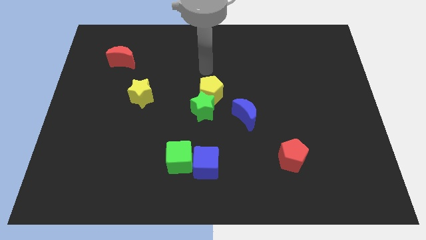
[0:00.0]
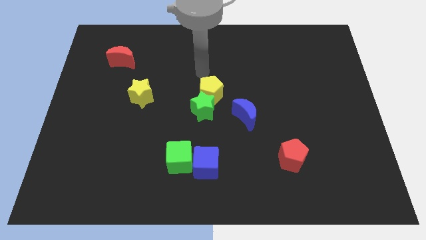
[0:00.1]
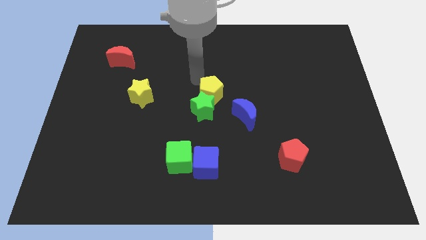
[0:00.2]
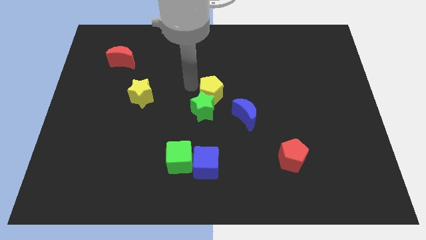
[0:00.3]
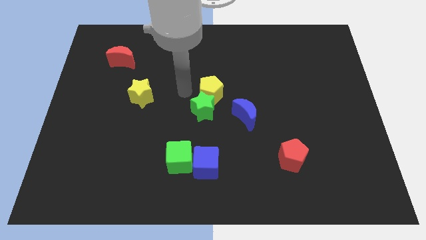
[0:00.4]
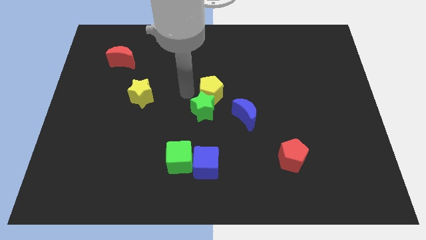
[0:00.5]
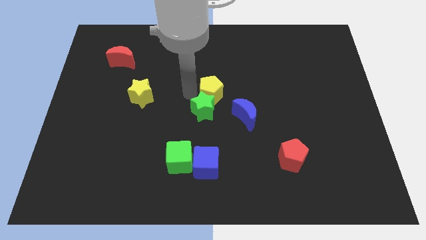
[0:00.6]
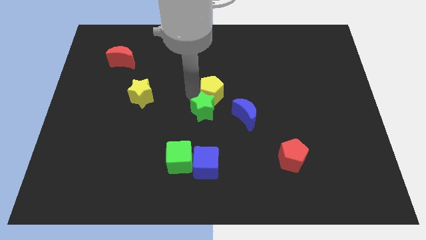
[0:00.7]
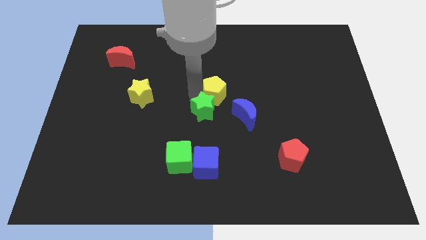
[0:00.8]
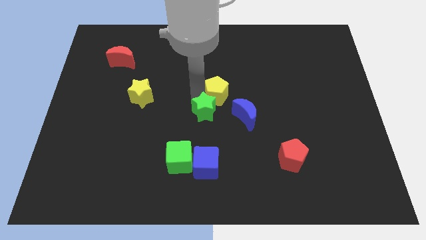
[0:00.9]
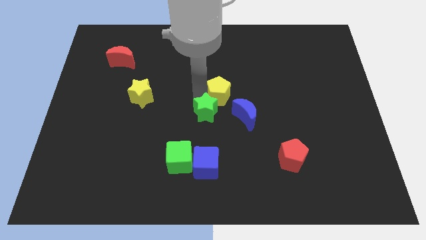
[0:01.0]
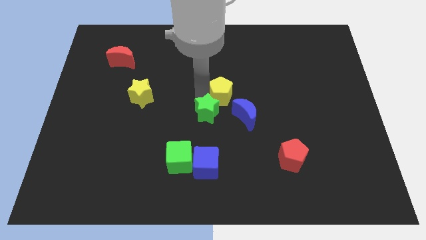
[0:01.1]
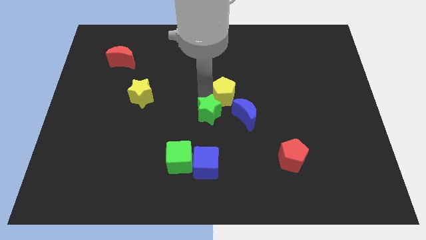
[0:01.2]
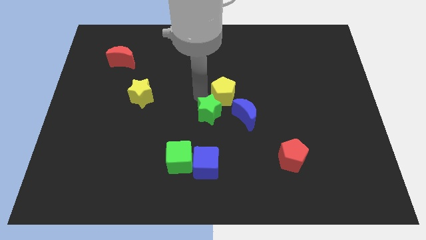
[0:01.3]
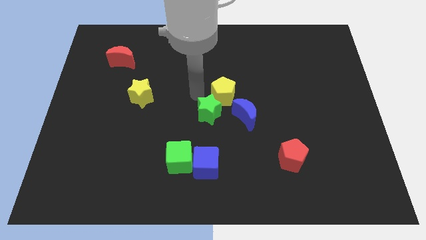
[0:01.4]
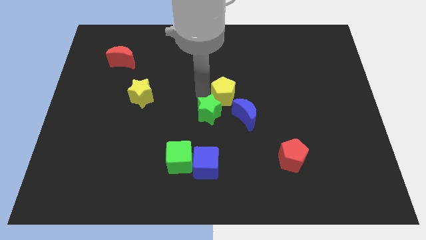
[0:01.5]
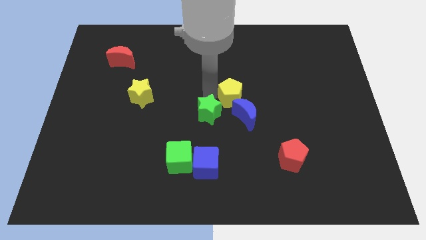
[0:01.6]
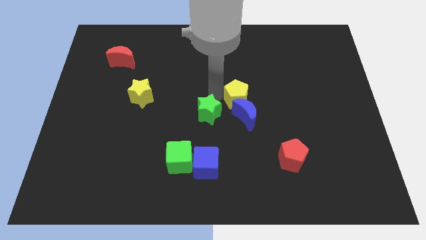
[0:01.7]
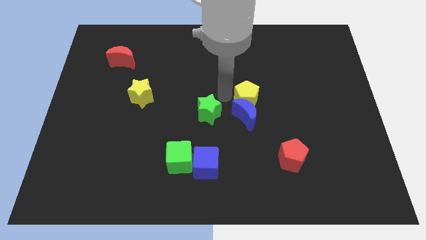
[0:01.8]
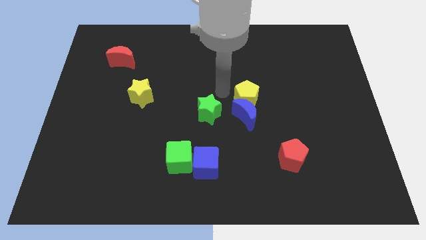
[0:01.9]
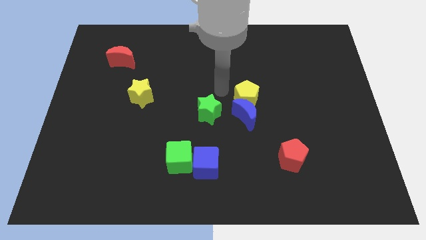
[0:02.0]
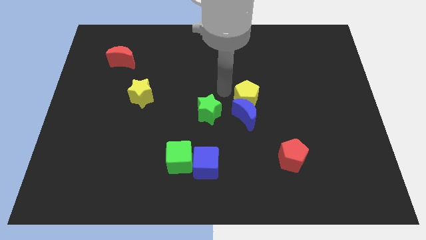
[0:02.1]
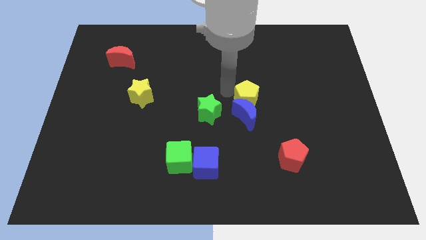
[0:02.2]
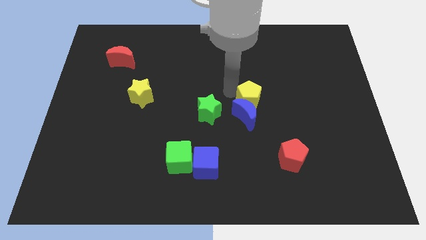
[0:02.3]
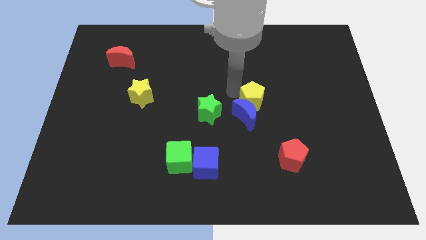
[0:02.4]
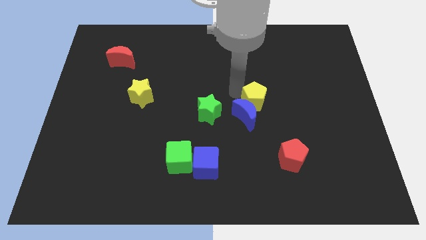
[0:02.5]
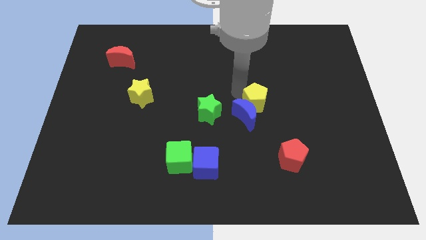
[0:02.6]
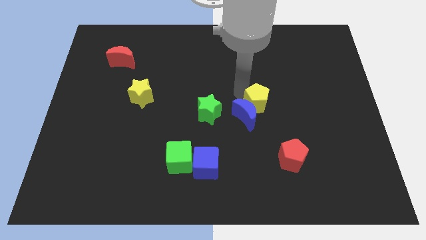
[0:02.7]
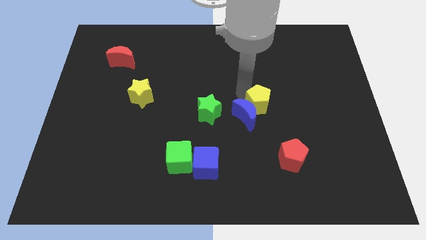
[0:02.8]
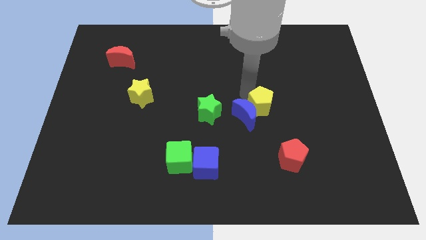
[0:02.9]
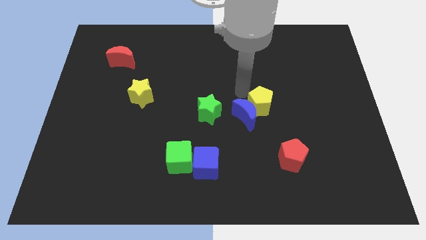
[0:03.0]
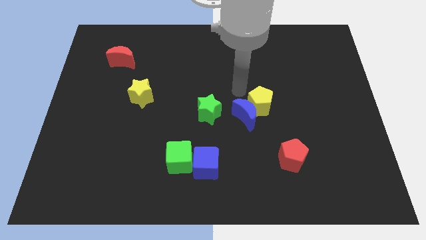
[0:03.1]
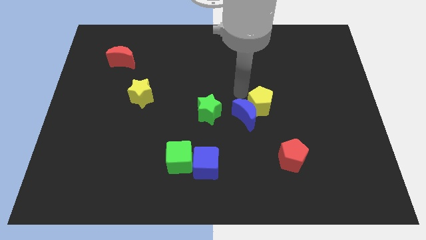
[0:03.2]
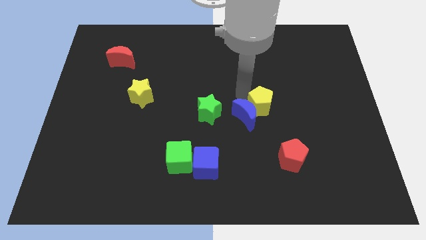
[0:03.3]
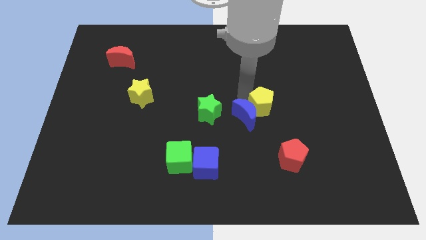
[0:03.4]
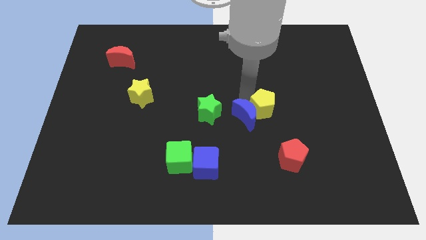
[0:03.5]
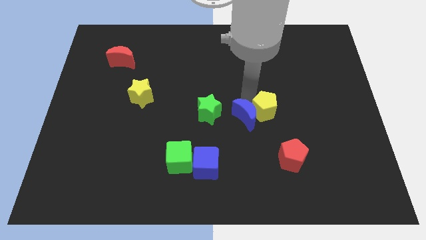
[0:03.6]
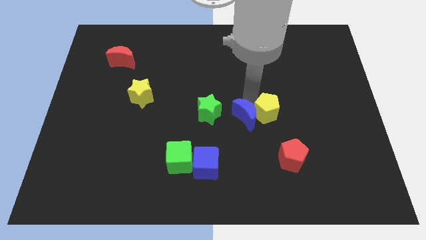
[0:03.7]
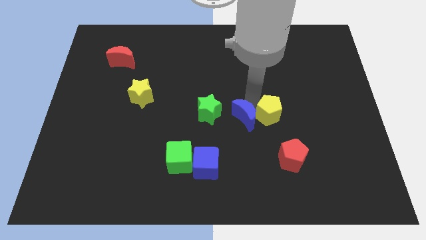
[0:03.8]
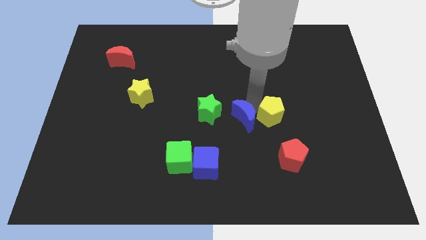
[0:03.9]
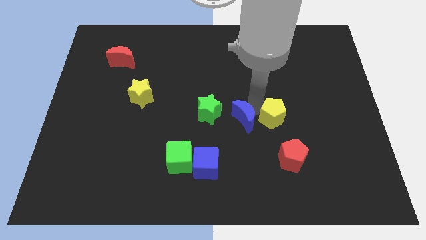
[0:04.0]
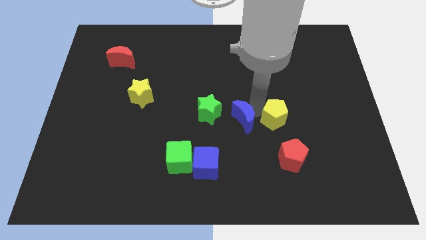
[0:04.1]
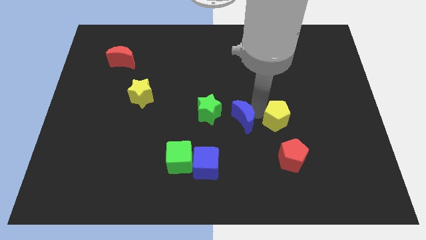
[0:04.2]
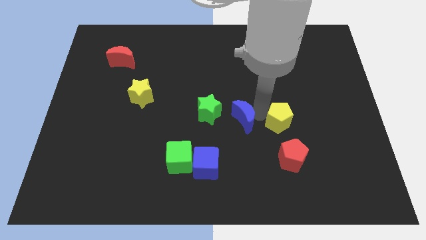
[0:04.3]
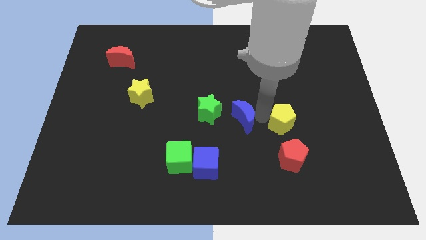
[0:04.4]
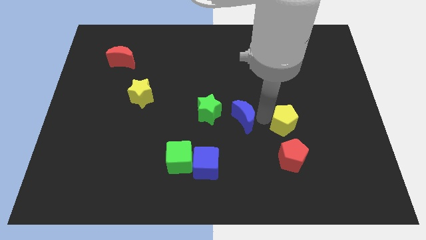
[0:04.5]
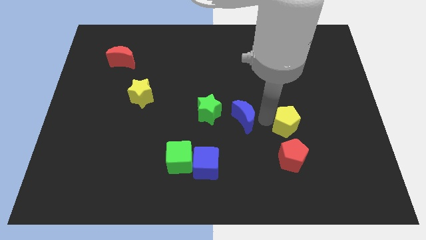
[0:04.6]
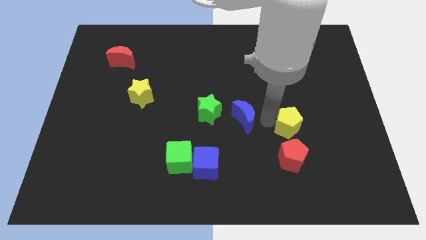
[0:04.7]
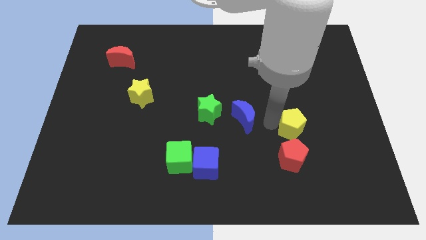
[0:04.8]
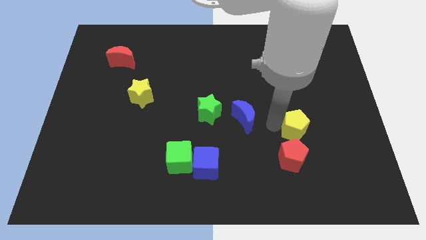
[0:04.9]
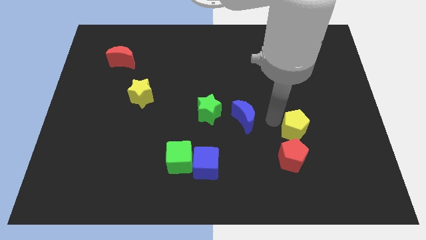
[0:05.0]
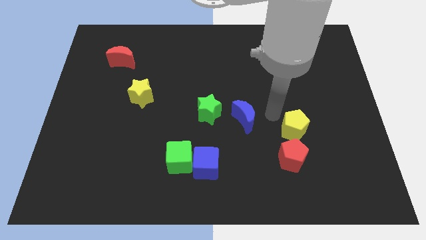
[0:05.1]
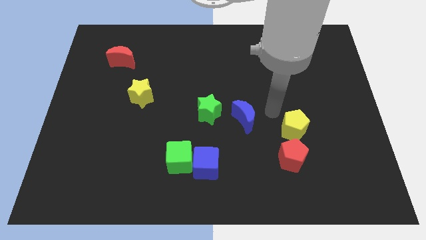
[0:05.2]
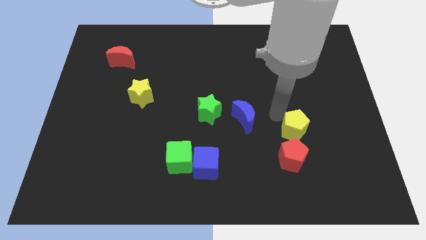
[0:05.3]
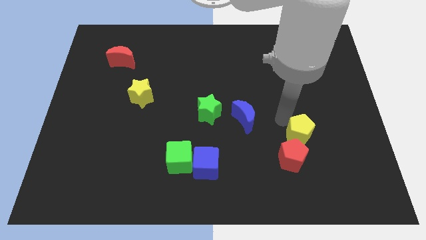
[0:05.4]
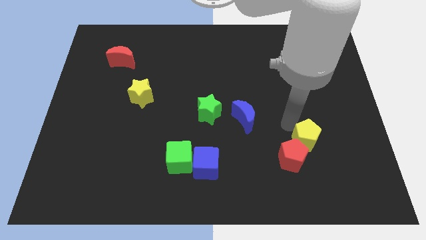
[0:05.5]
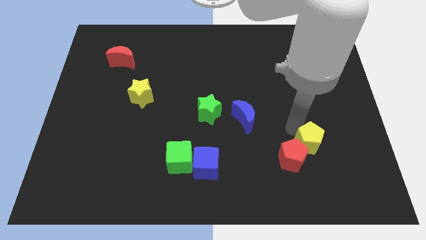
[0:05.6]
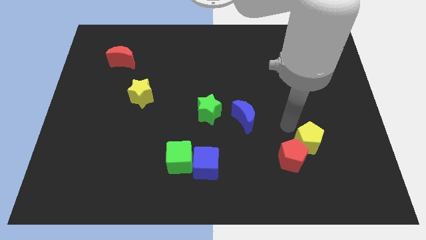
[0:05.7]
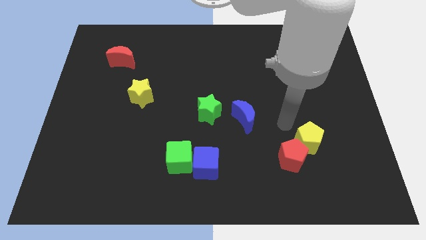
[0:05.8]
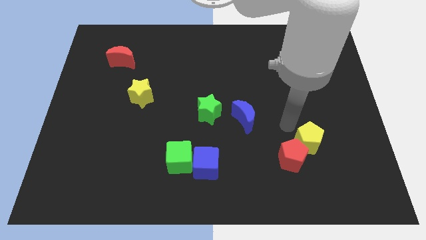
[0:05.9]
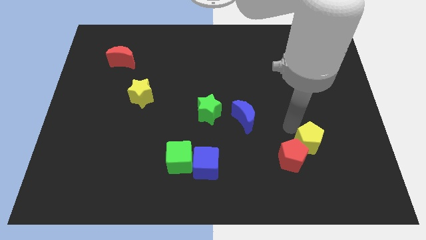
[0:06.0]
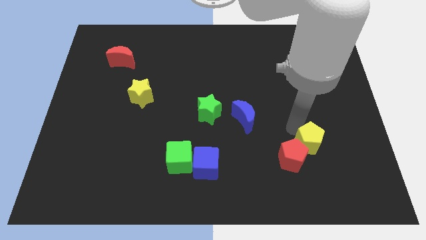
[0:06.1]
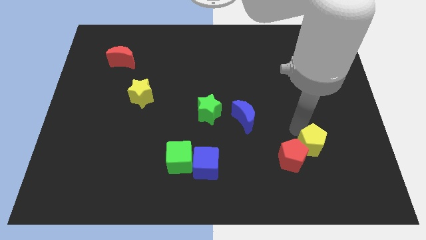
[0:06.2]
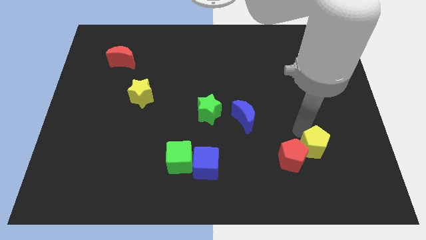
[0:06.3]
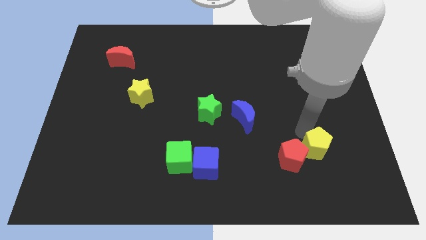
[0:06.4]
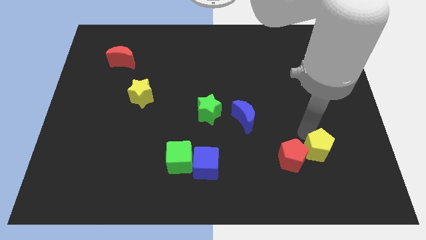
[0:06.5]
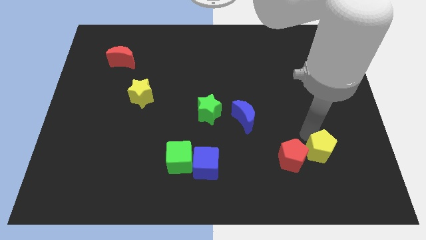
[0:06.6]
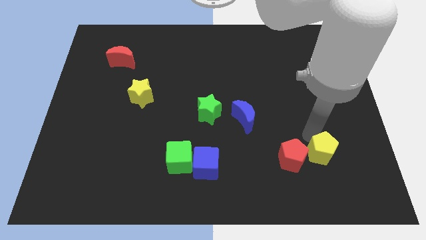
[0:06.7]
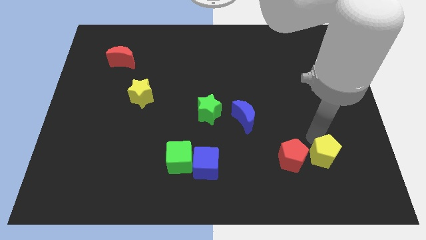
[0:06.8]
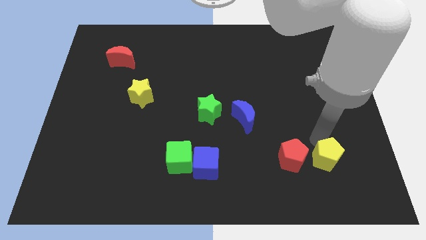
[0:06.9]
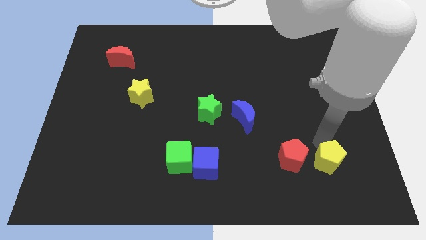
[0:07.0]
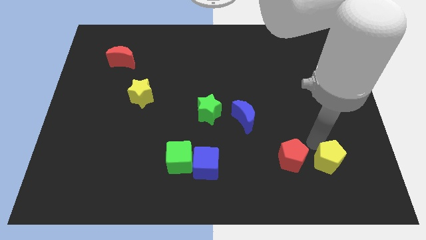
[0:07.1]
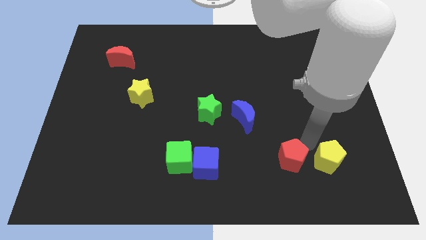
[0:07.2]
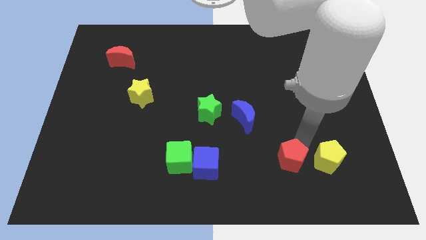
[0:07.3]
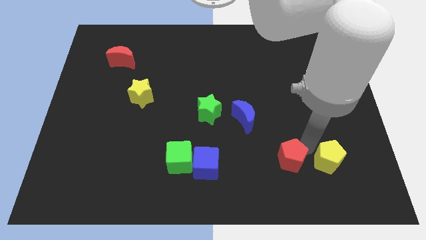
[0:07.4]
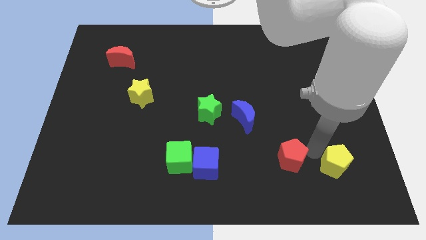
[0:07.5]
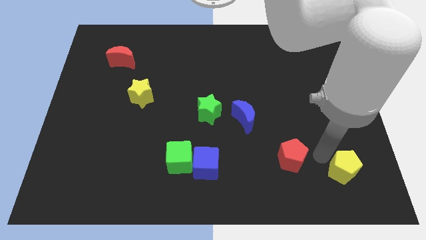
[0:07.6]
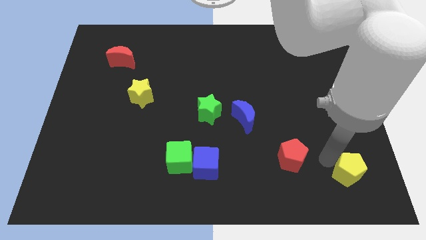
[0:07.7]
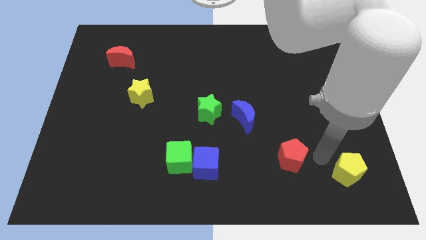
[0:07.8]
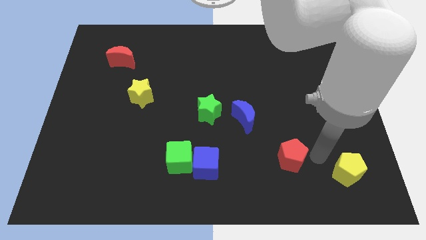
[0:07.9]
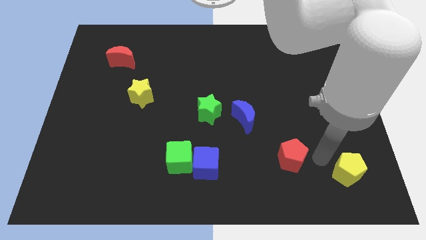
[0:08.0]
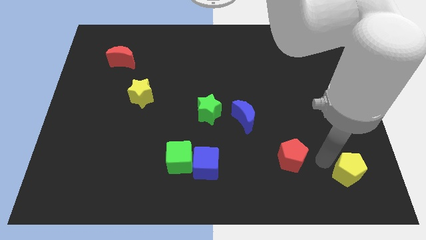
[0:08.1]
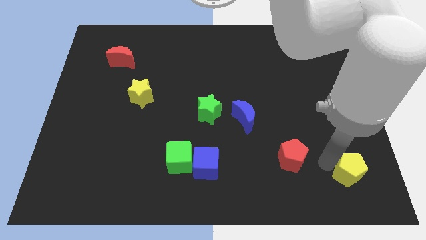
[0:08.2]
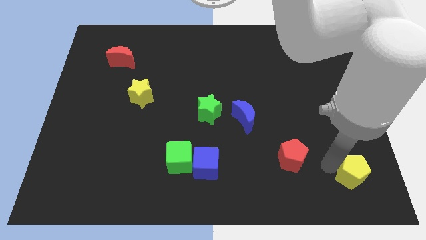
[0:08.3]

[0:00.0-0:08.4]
push the yellow pentagon to the bottom right of the board
